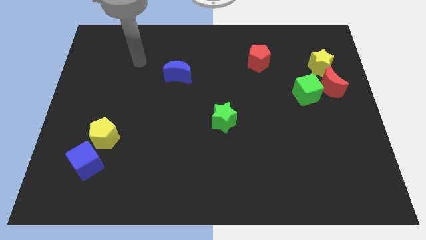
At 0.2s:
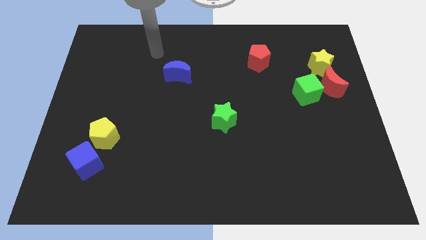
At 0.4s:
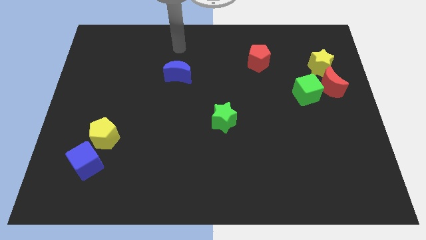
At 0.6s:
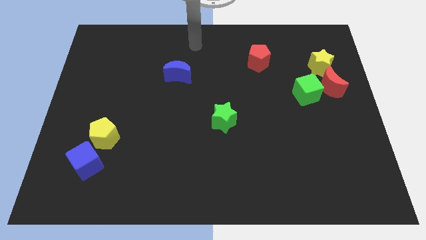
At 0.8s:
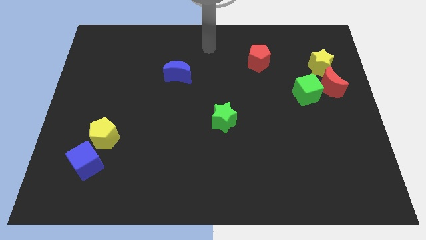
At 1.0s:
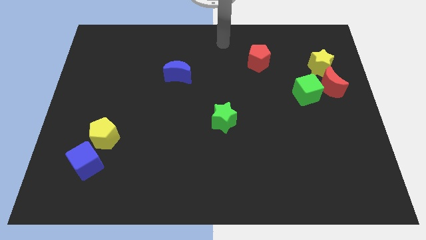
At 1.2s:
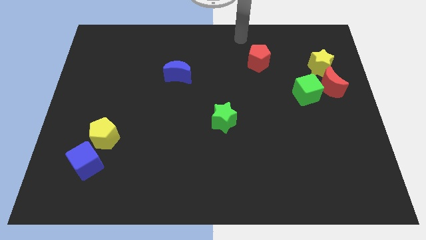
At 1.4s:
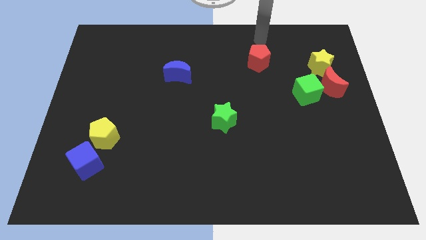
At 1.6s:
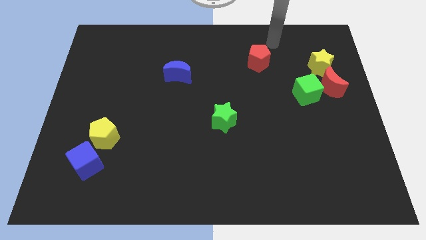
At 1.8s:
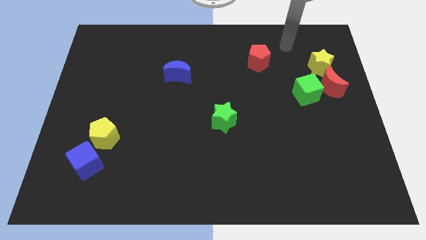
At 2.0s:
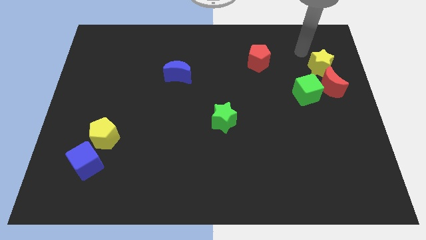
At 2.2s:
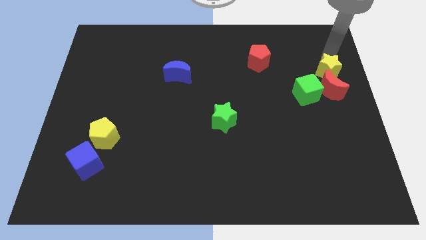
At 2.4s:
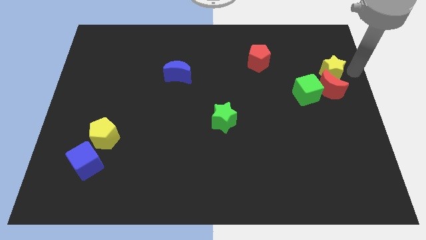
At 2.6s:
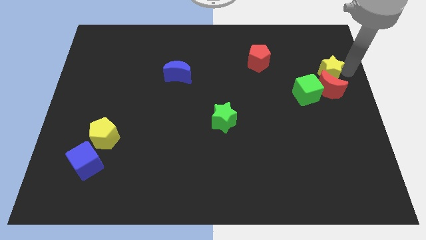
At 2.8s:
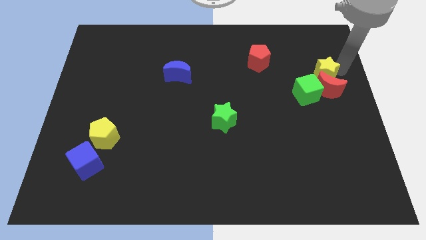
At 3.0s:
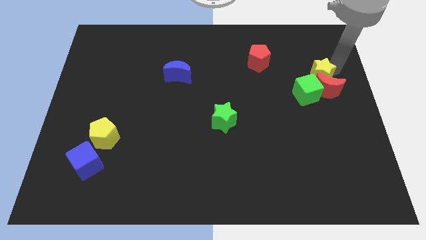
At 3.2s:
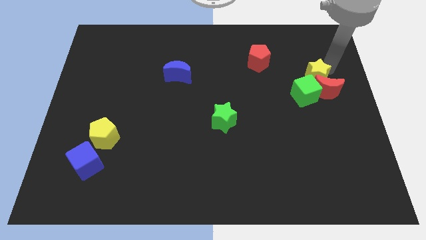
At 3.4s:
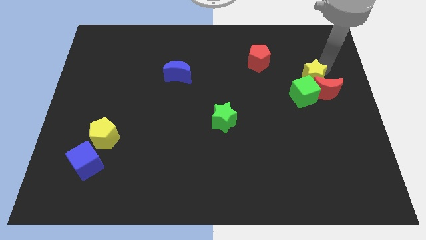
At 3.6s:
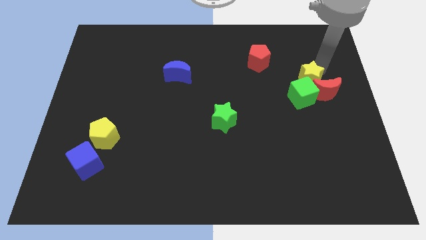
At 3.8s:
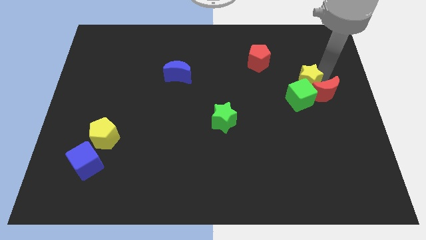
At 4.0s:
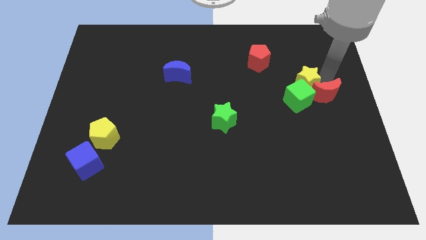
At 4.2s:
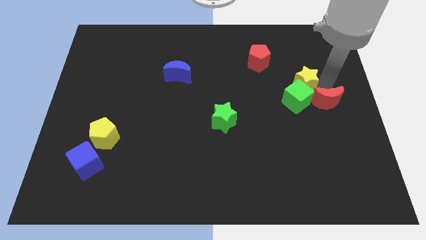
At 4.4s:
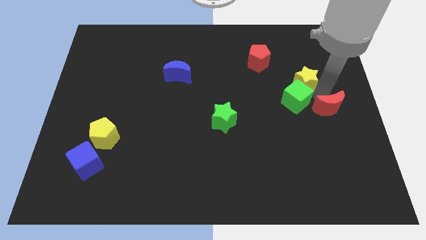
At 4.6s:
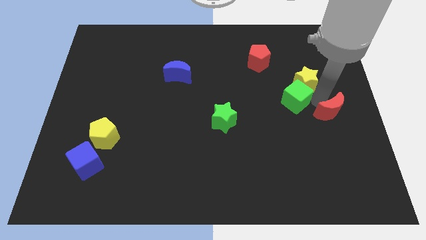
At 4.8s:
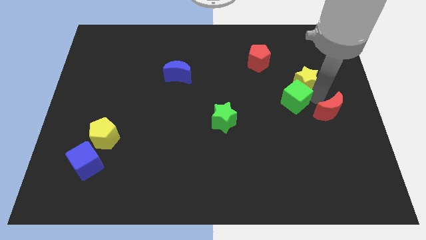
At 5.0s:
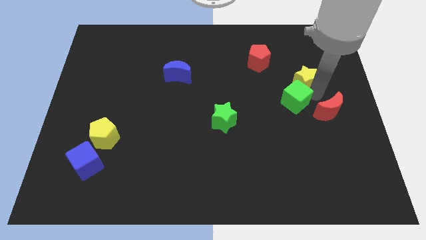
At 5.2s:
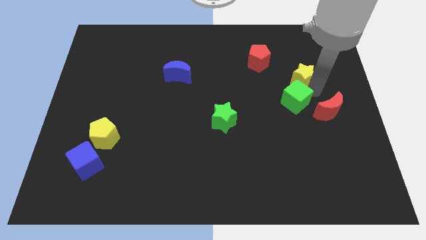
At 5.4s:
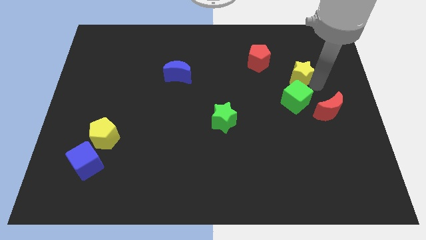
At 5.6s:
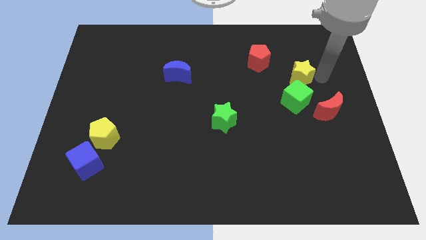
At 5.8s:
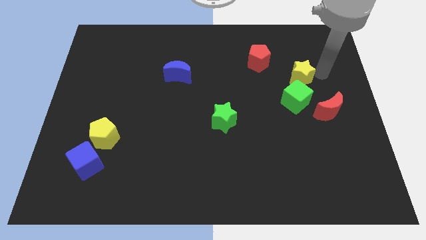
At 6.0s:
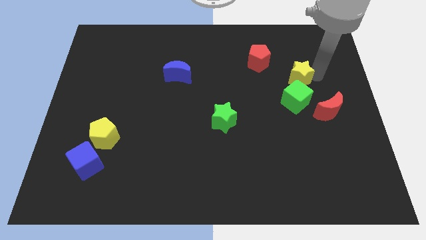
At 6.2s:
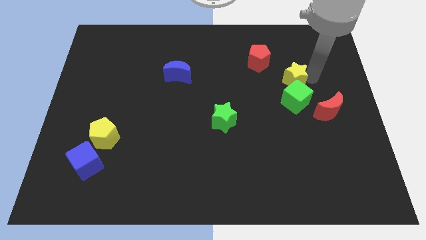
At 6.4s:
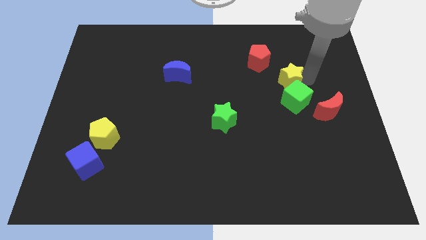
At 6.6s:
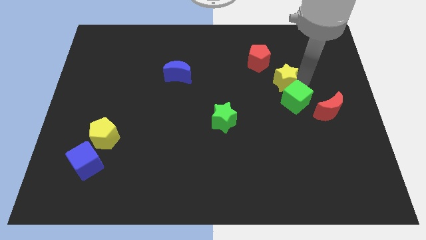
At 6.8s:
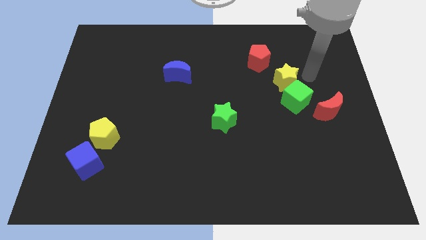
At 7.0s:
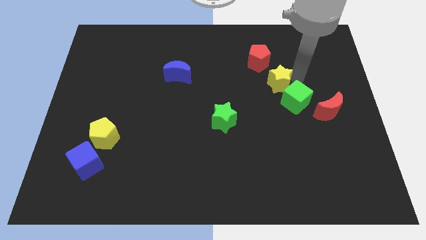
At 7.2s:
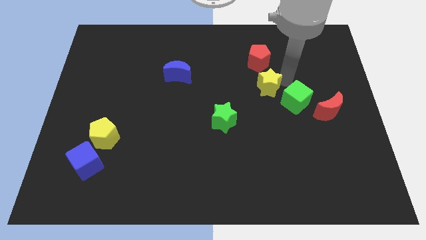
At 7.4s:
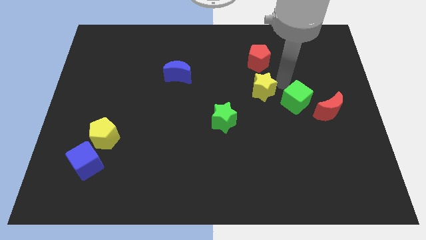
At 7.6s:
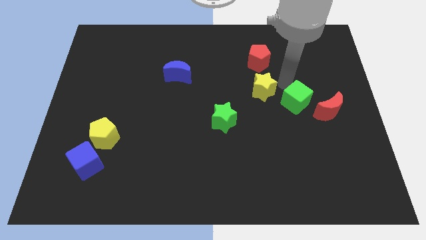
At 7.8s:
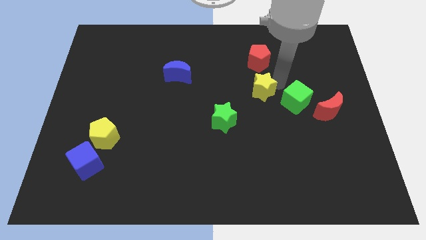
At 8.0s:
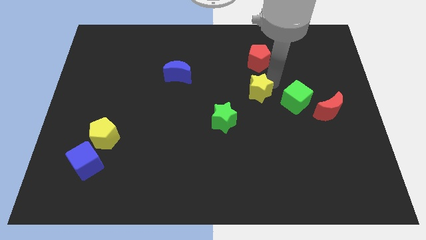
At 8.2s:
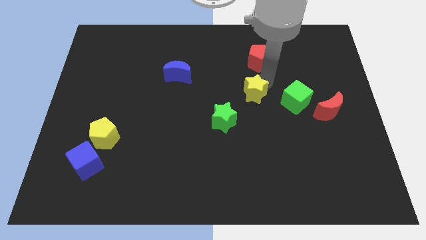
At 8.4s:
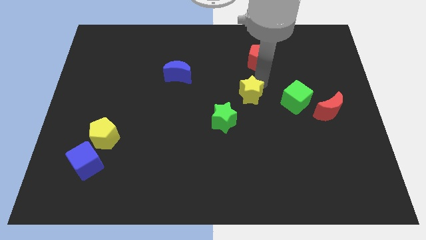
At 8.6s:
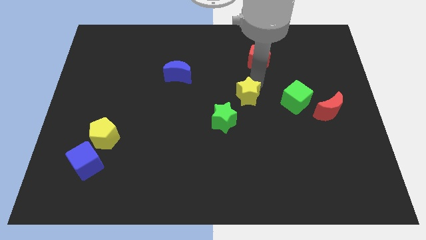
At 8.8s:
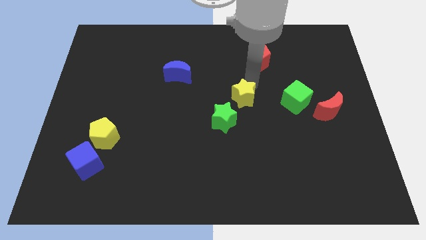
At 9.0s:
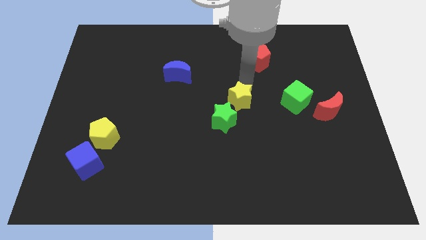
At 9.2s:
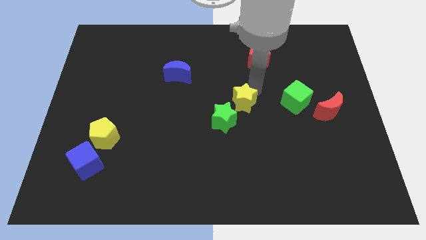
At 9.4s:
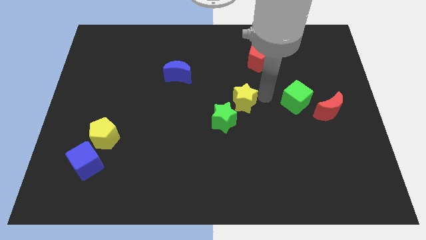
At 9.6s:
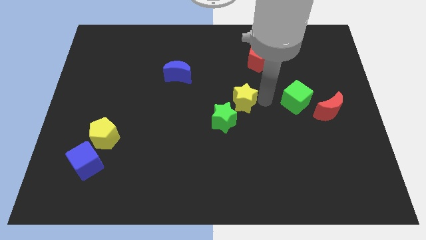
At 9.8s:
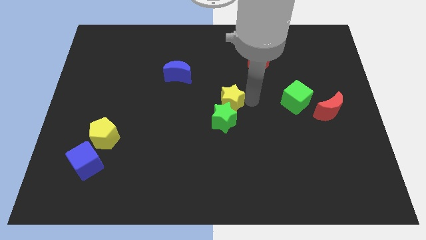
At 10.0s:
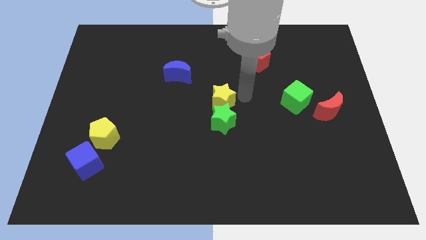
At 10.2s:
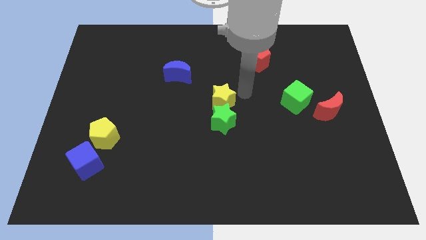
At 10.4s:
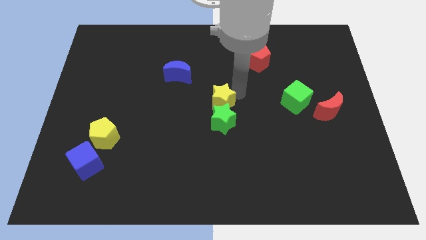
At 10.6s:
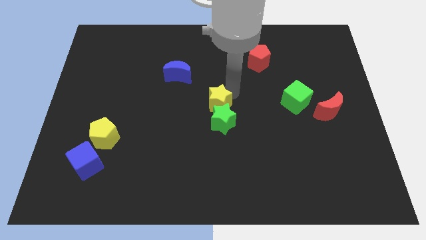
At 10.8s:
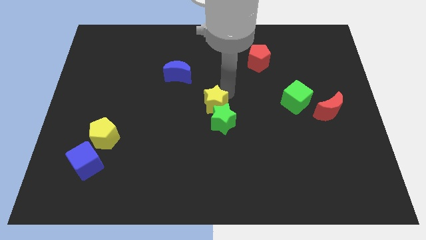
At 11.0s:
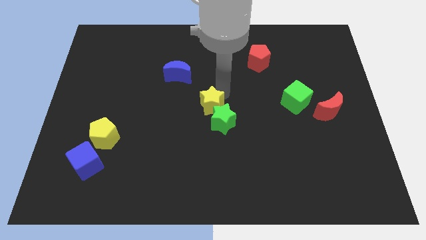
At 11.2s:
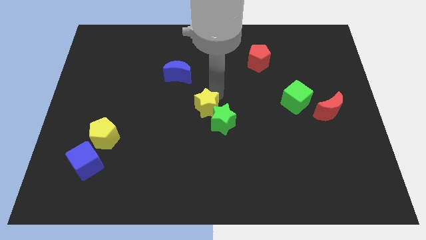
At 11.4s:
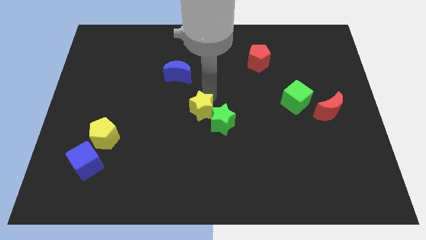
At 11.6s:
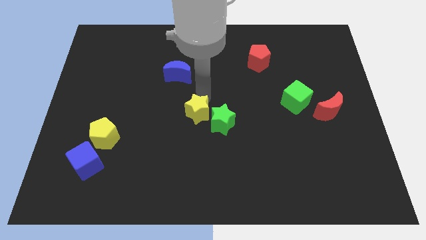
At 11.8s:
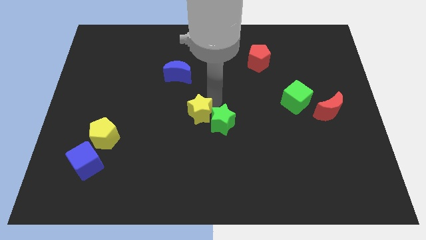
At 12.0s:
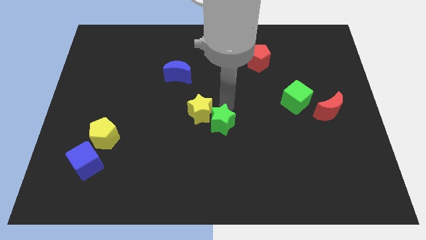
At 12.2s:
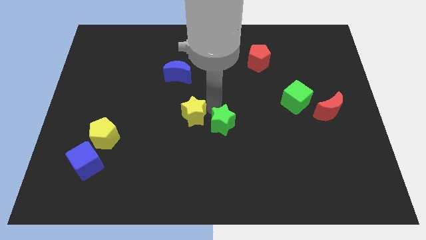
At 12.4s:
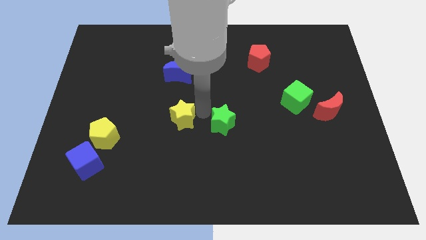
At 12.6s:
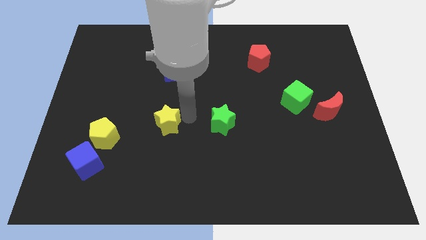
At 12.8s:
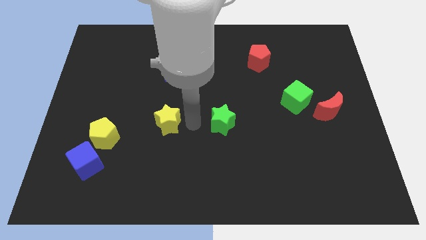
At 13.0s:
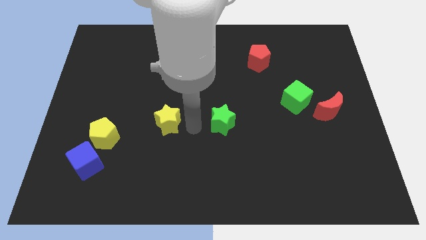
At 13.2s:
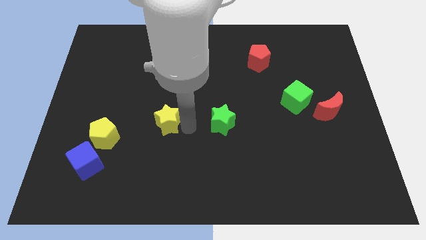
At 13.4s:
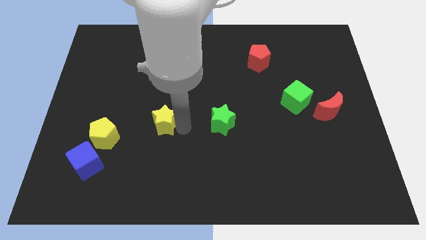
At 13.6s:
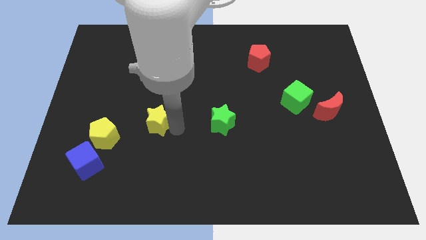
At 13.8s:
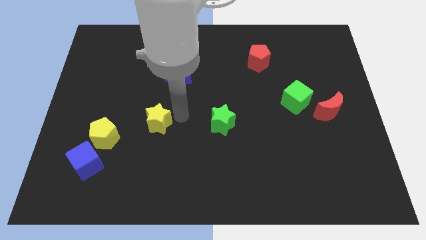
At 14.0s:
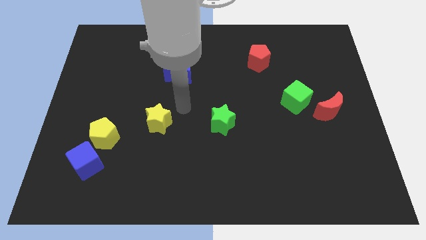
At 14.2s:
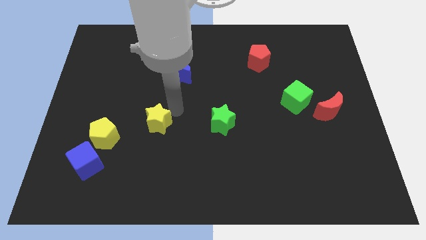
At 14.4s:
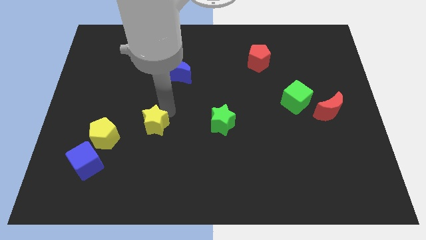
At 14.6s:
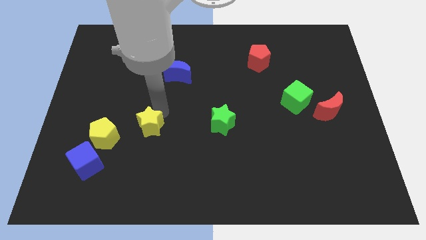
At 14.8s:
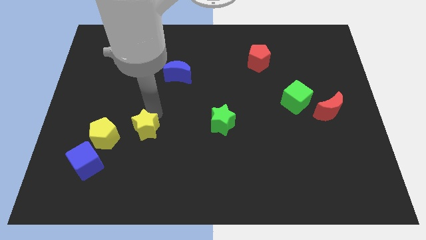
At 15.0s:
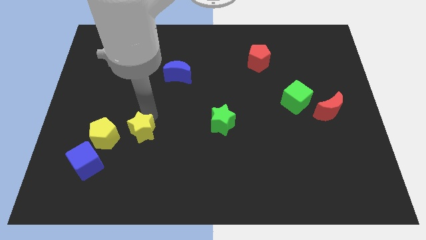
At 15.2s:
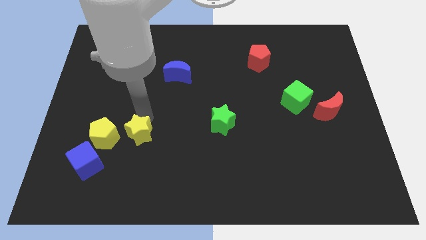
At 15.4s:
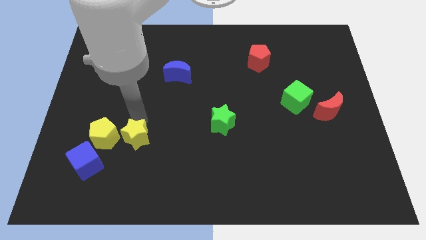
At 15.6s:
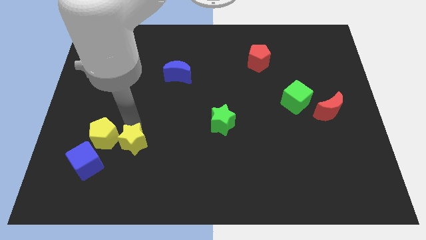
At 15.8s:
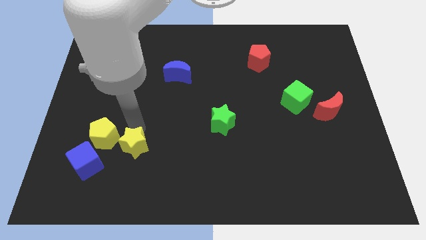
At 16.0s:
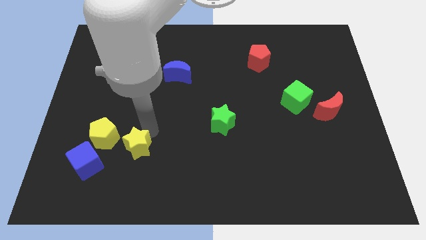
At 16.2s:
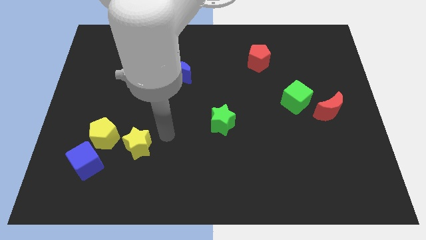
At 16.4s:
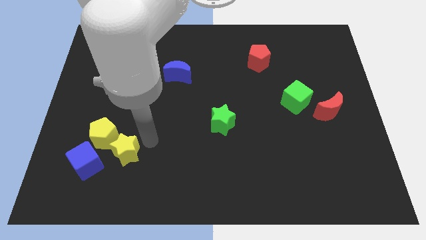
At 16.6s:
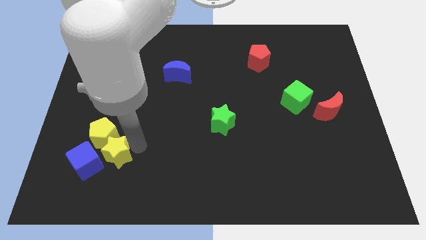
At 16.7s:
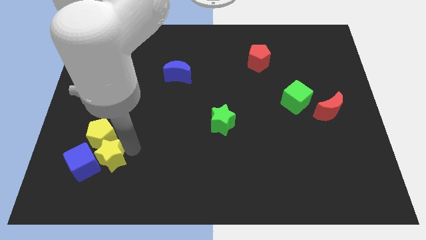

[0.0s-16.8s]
move the yellow star next to the blue cube
